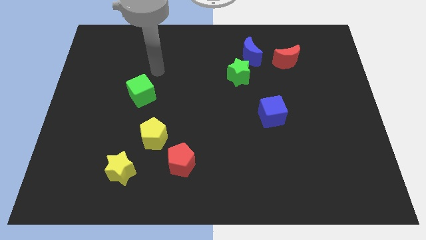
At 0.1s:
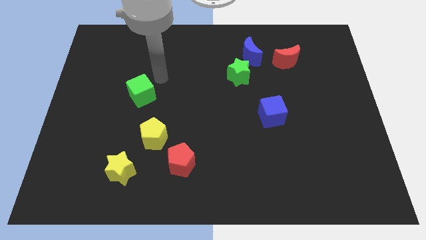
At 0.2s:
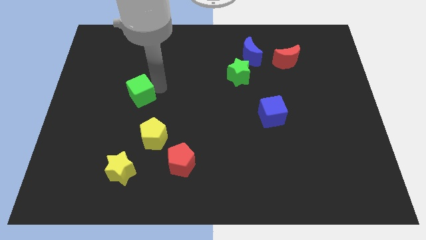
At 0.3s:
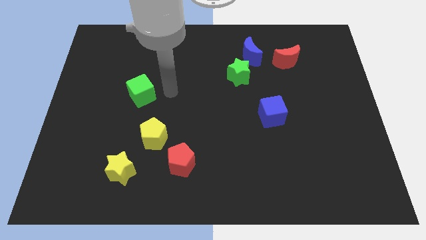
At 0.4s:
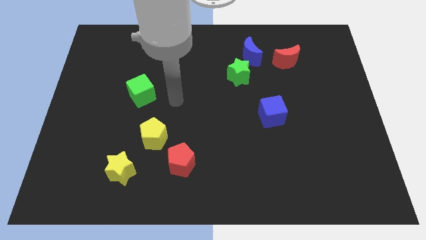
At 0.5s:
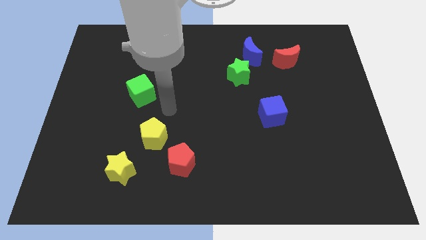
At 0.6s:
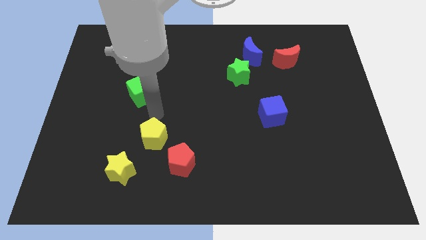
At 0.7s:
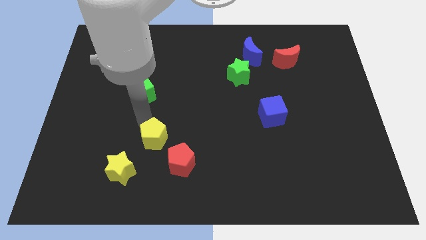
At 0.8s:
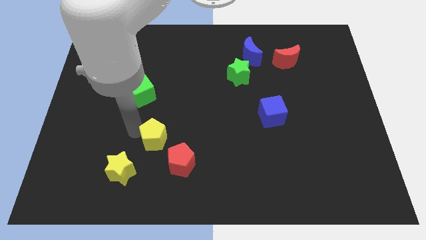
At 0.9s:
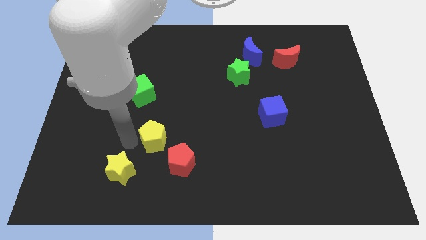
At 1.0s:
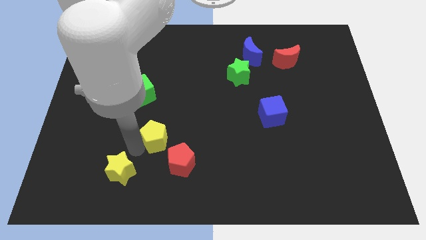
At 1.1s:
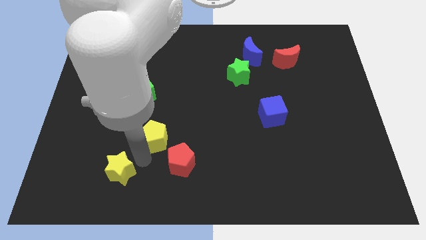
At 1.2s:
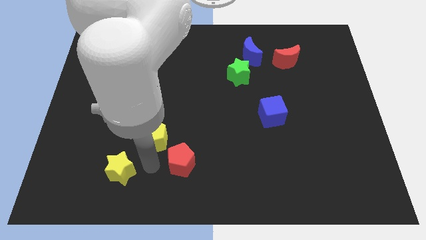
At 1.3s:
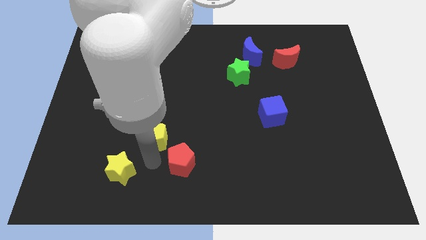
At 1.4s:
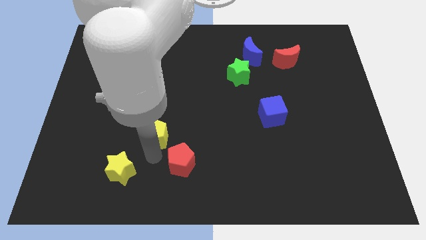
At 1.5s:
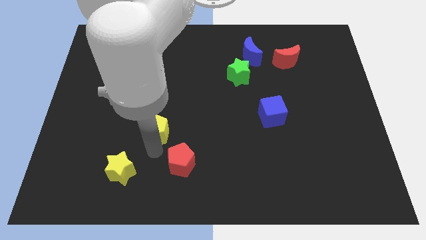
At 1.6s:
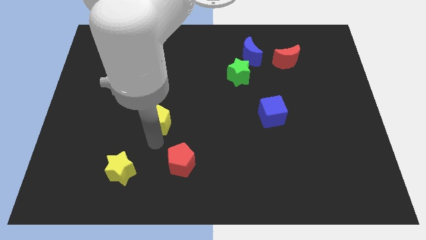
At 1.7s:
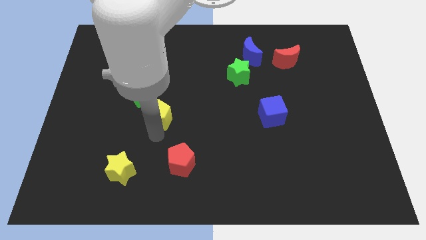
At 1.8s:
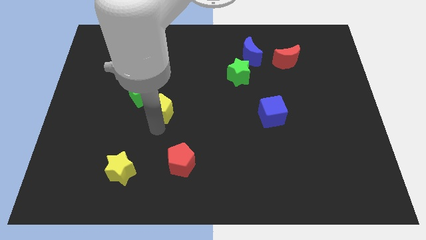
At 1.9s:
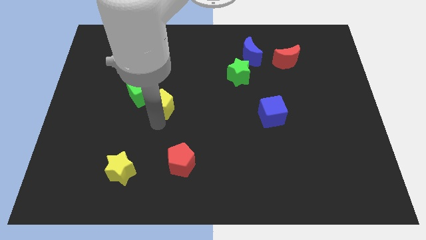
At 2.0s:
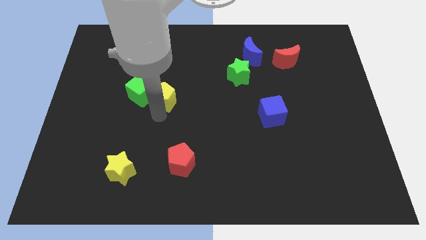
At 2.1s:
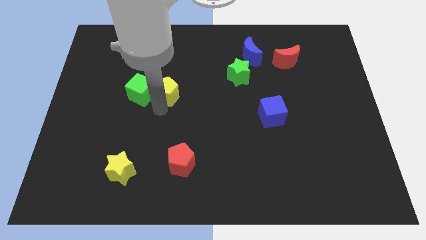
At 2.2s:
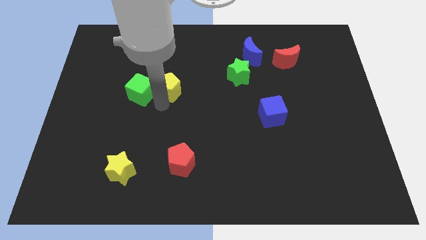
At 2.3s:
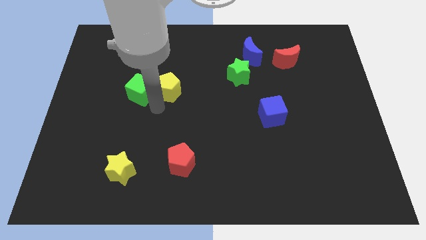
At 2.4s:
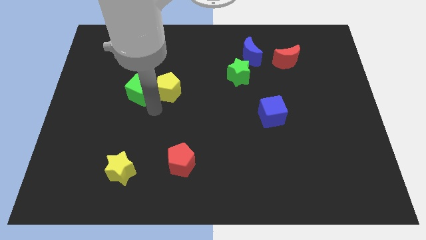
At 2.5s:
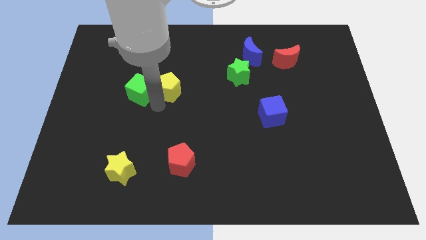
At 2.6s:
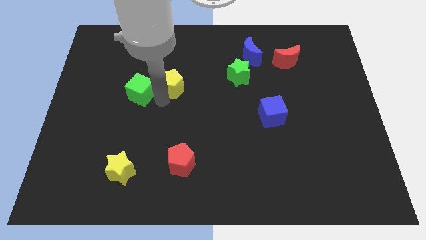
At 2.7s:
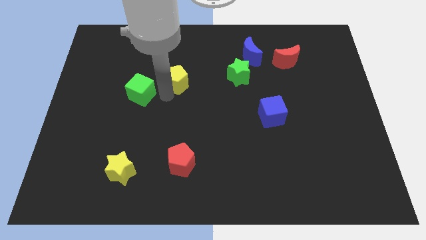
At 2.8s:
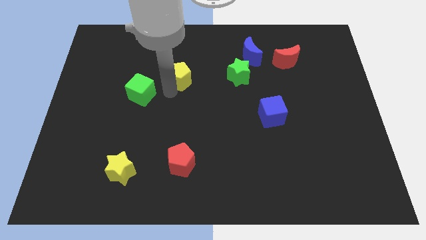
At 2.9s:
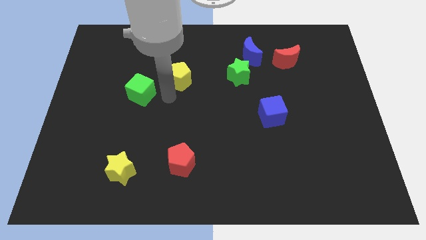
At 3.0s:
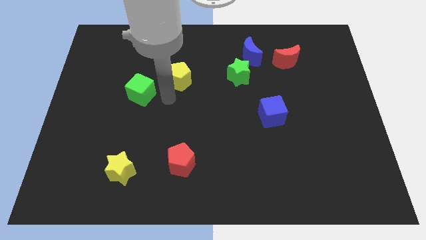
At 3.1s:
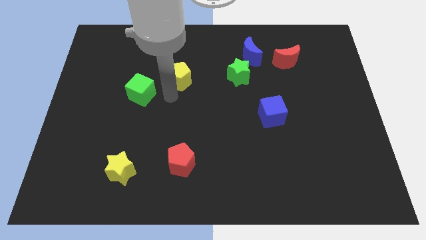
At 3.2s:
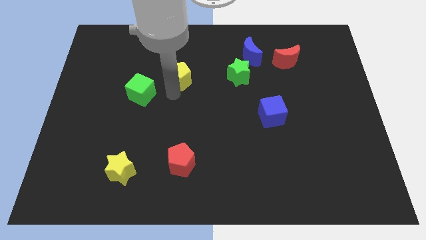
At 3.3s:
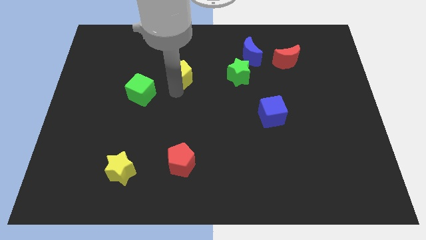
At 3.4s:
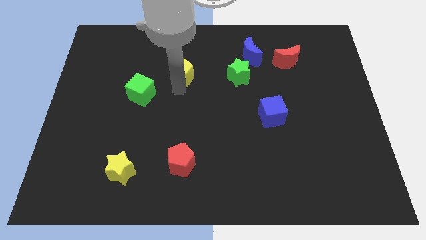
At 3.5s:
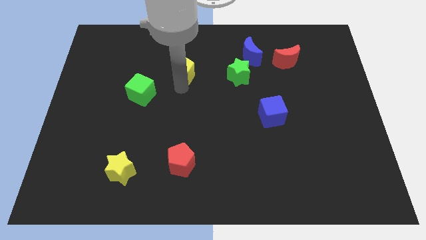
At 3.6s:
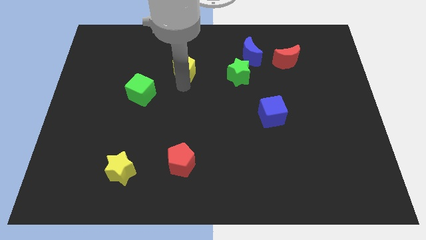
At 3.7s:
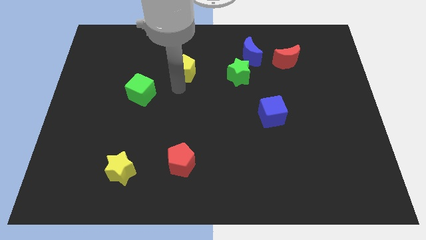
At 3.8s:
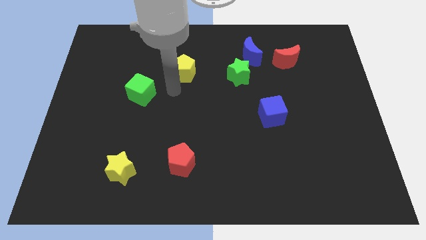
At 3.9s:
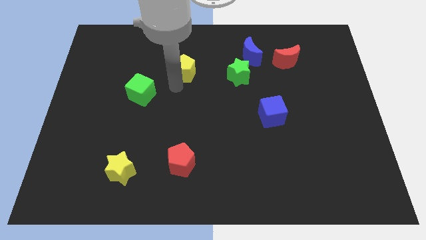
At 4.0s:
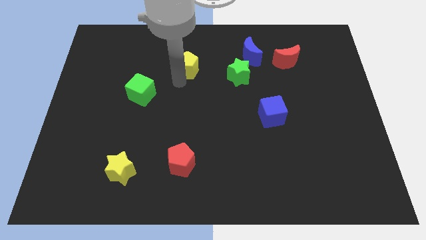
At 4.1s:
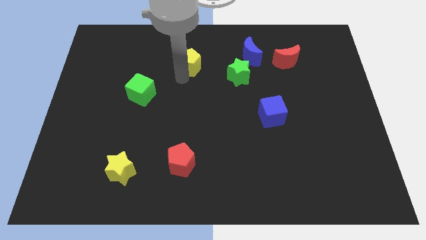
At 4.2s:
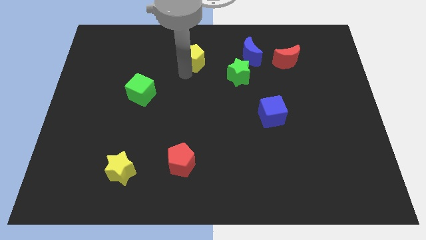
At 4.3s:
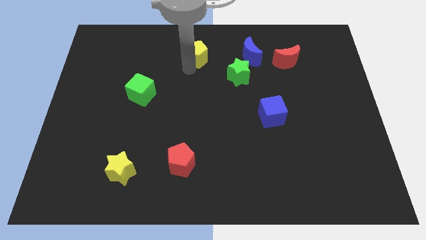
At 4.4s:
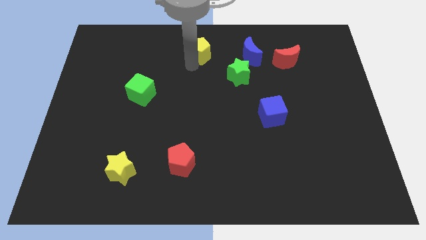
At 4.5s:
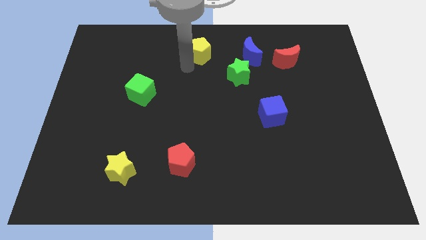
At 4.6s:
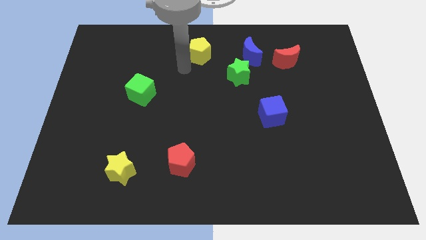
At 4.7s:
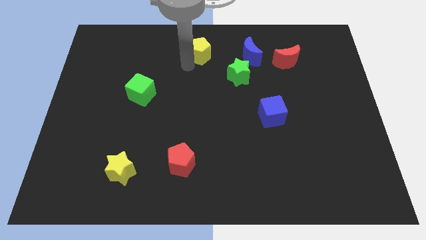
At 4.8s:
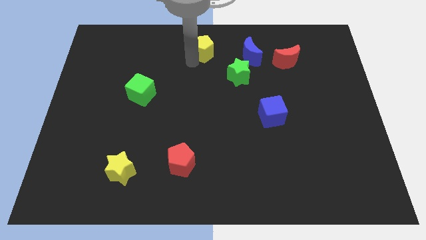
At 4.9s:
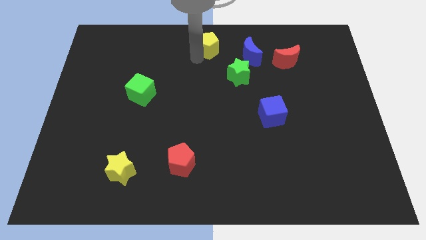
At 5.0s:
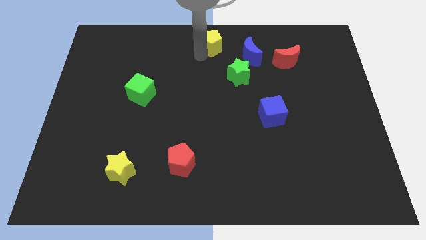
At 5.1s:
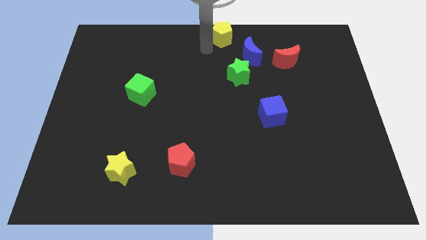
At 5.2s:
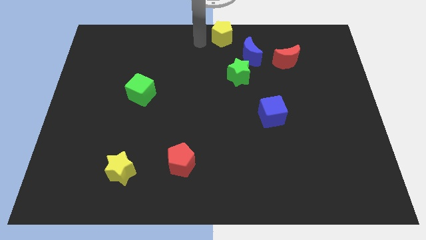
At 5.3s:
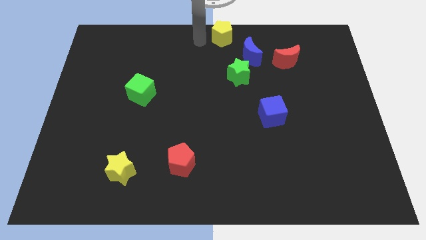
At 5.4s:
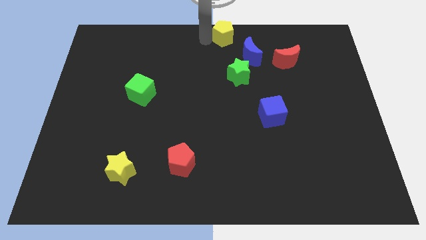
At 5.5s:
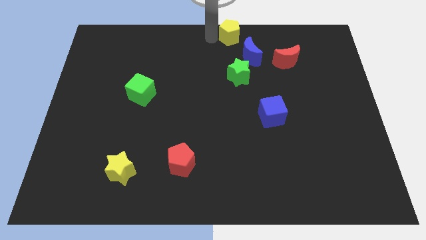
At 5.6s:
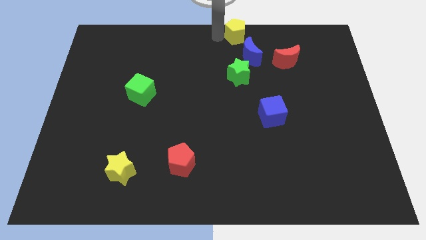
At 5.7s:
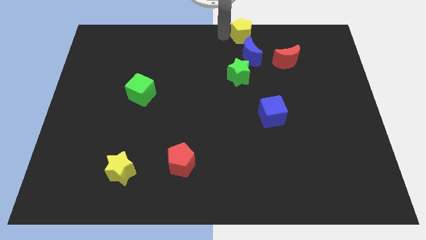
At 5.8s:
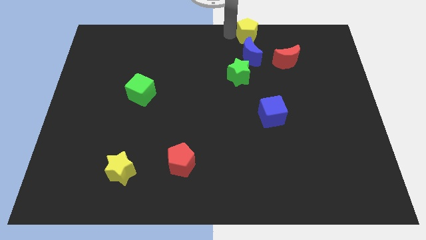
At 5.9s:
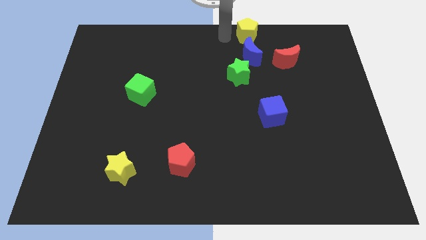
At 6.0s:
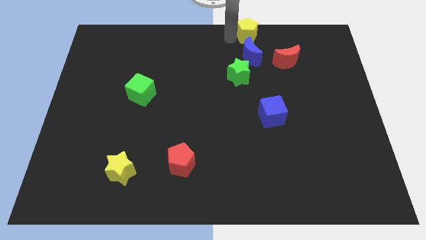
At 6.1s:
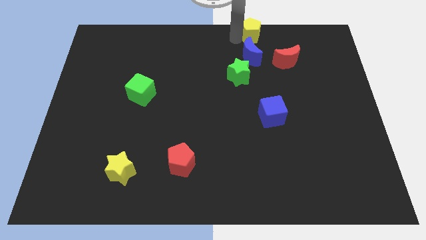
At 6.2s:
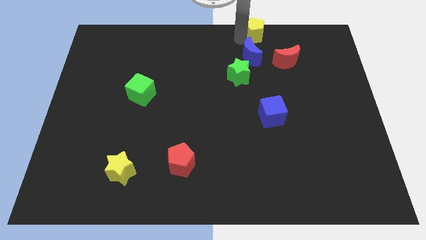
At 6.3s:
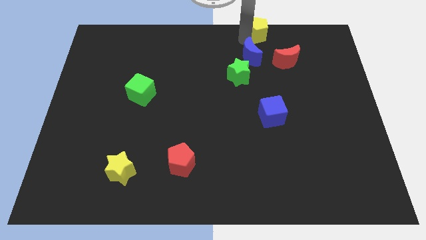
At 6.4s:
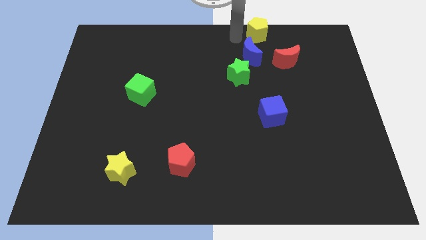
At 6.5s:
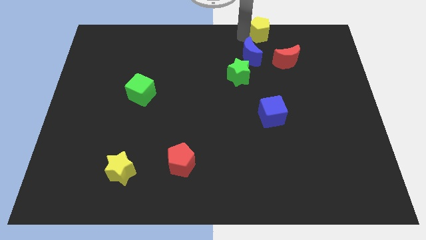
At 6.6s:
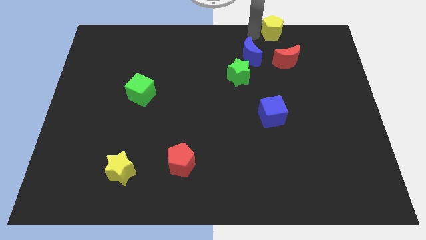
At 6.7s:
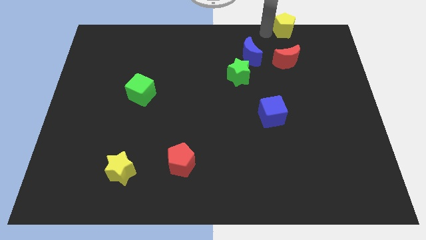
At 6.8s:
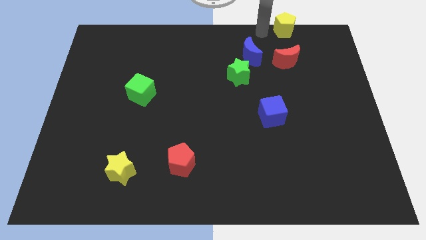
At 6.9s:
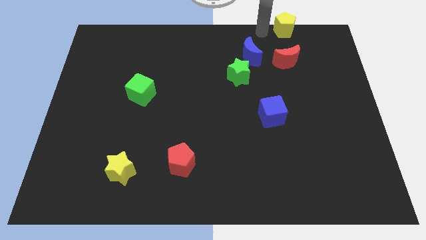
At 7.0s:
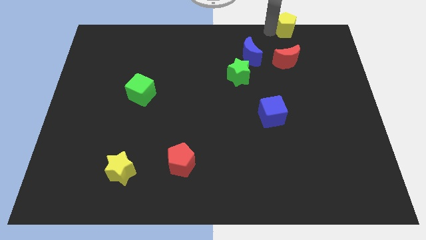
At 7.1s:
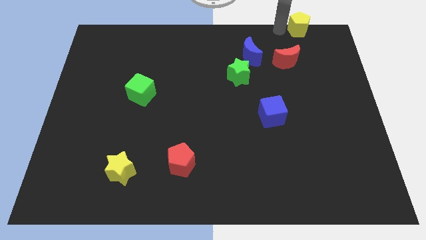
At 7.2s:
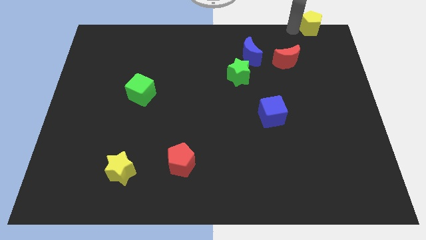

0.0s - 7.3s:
slide the yellow pentagon to the top right corner

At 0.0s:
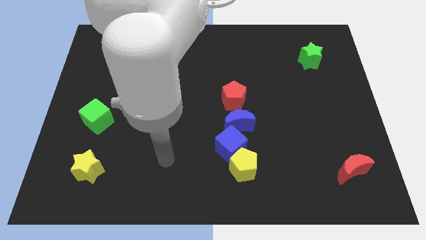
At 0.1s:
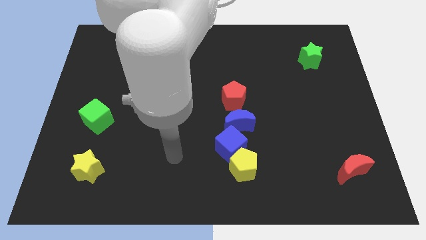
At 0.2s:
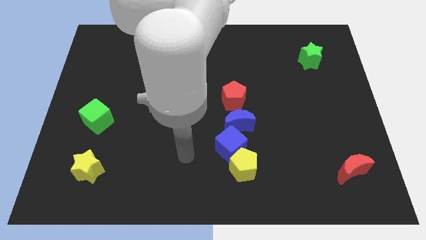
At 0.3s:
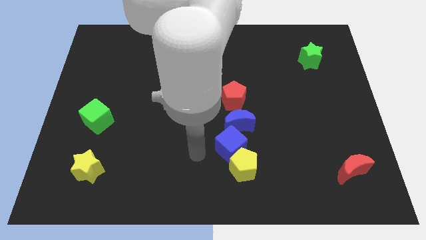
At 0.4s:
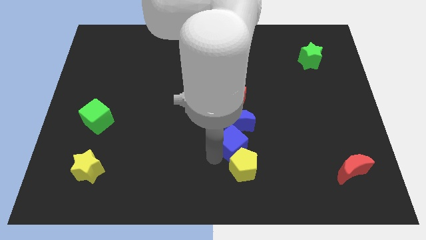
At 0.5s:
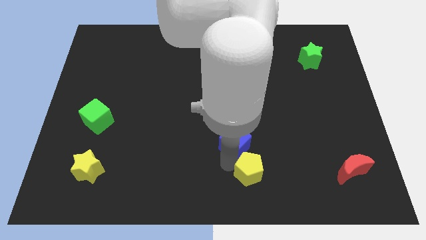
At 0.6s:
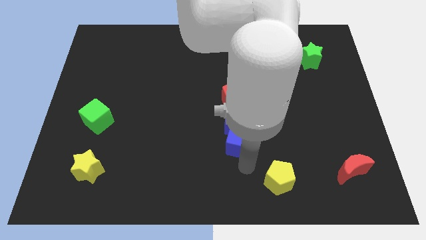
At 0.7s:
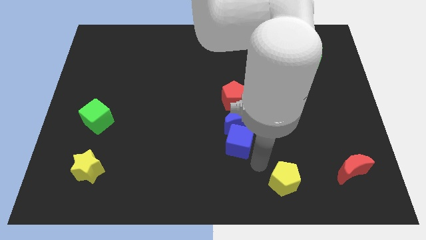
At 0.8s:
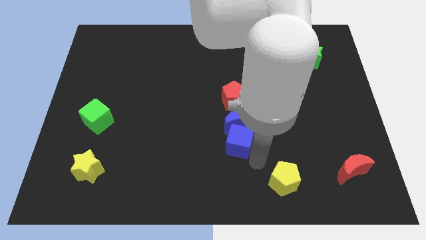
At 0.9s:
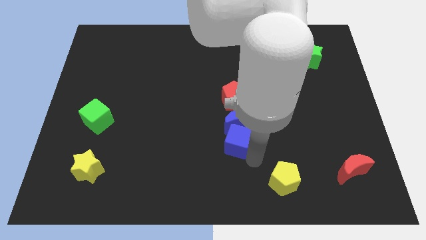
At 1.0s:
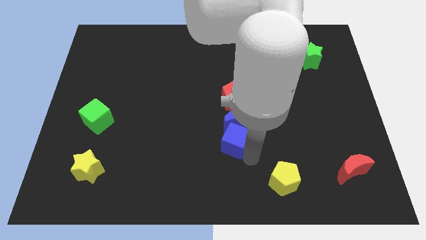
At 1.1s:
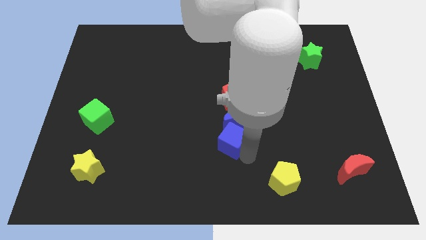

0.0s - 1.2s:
put the blue cube to the middle of the board
